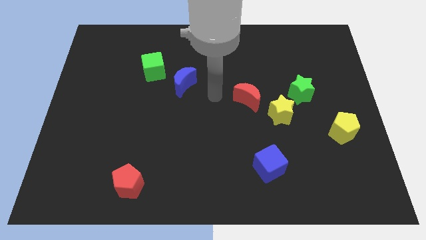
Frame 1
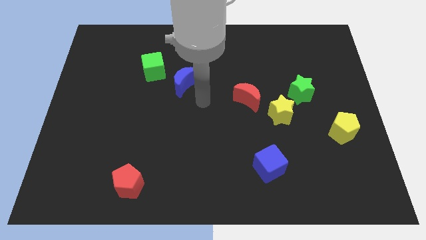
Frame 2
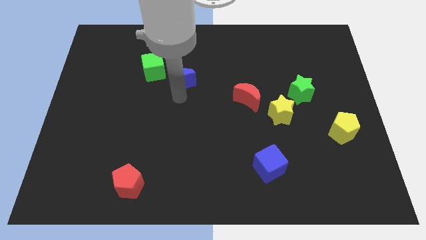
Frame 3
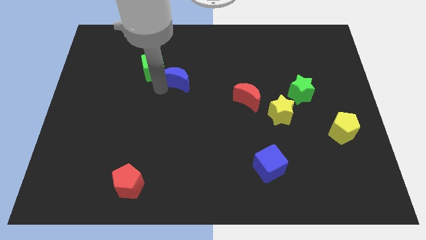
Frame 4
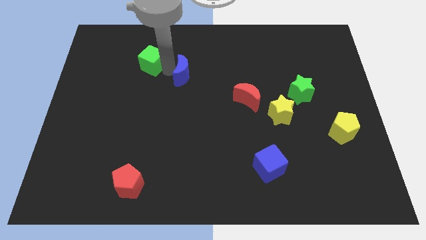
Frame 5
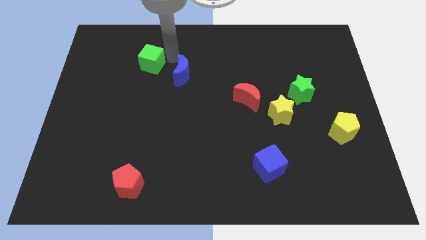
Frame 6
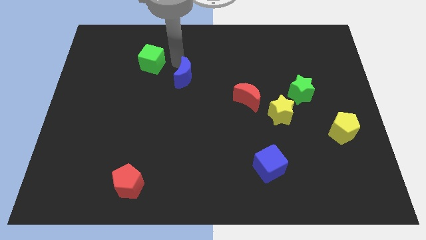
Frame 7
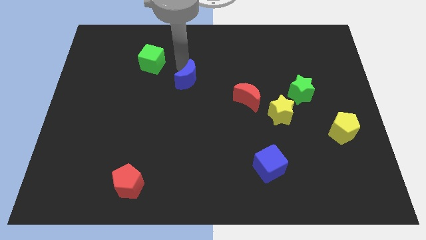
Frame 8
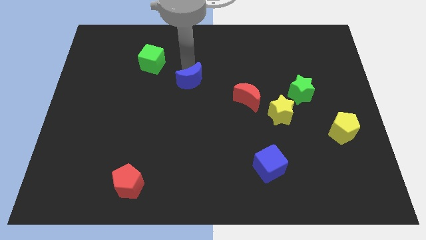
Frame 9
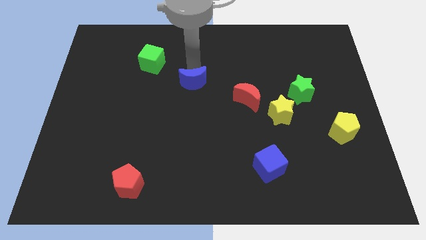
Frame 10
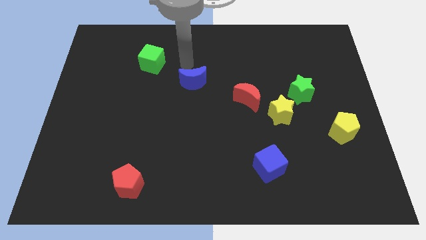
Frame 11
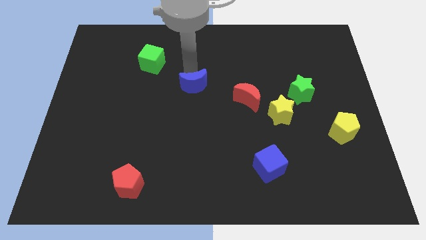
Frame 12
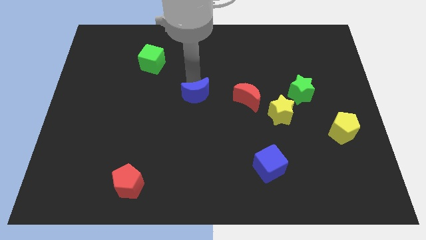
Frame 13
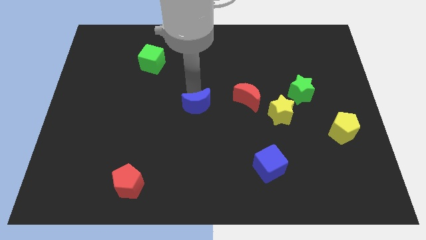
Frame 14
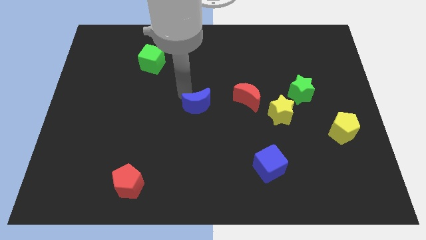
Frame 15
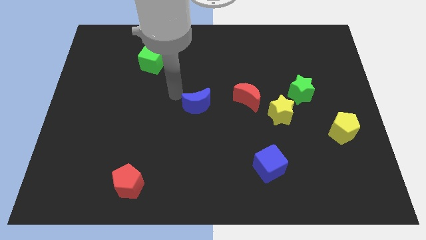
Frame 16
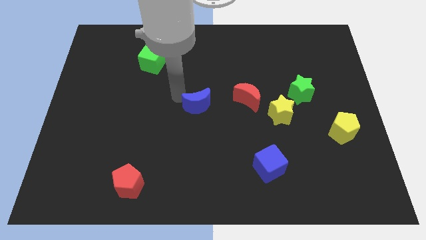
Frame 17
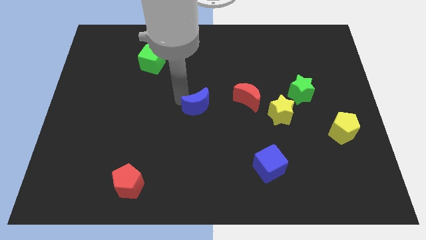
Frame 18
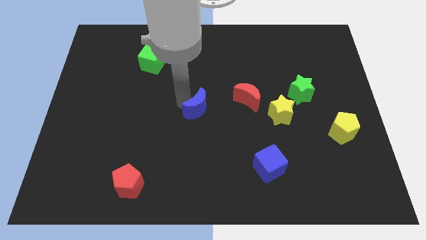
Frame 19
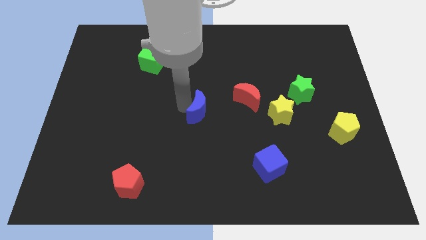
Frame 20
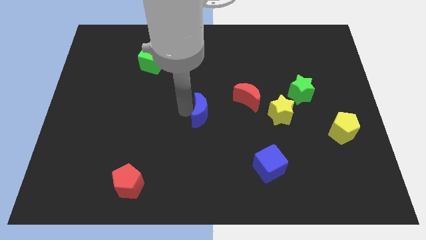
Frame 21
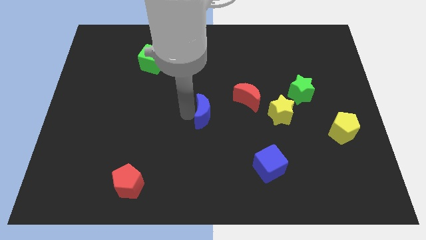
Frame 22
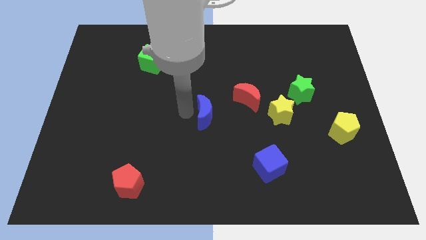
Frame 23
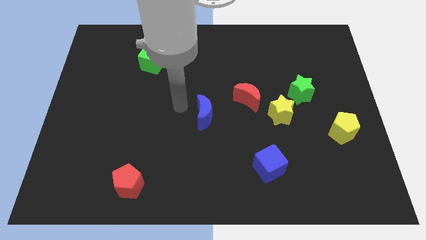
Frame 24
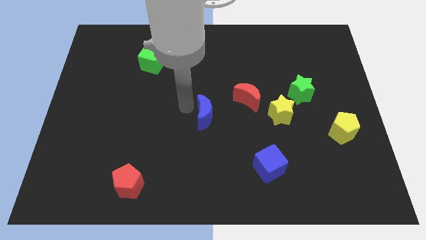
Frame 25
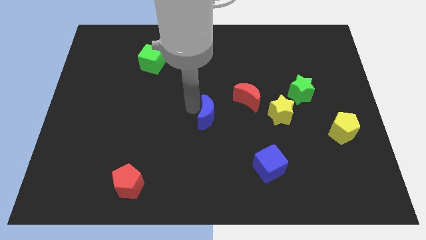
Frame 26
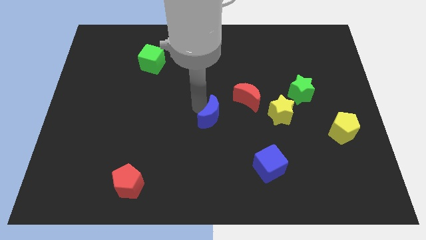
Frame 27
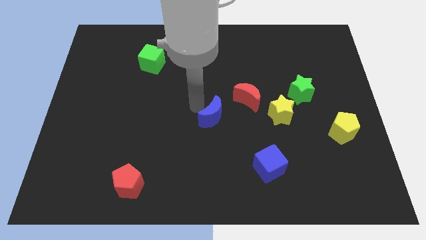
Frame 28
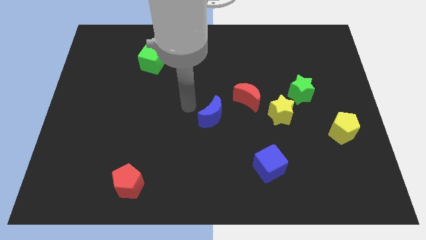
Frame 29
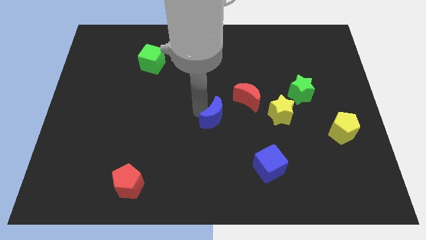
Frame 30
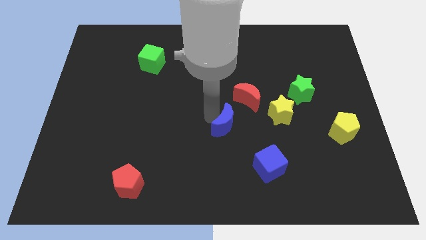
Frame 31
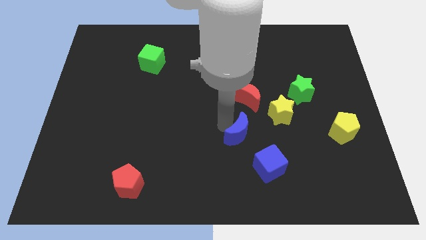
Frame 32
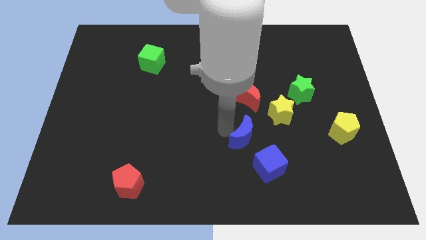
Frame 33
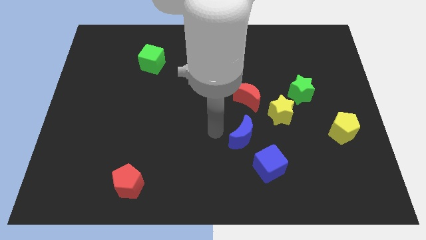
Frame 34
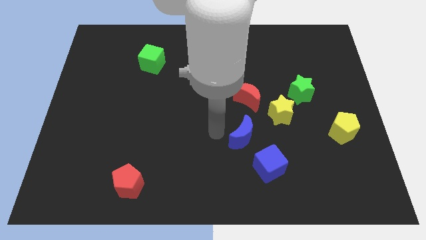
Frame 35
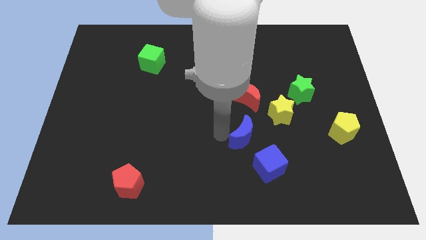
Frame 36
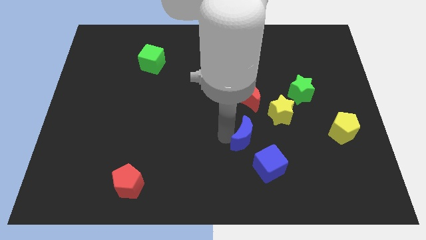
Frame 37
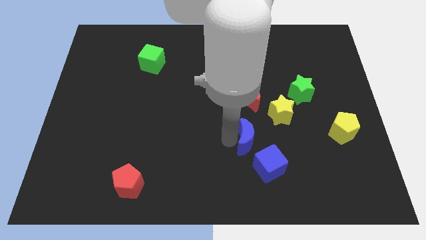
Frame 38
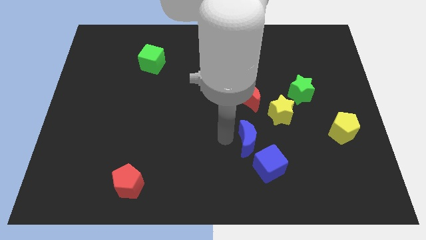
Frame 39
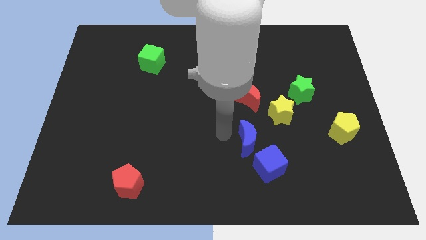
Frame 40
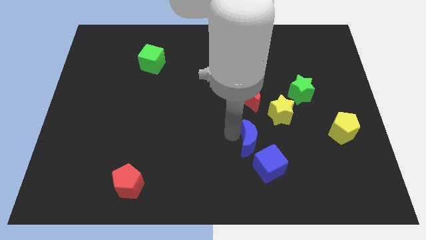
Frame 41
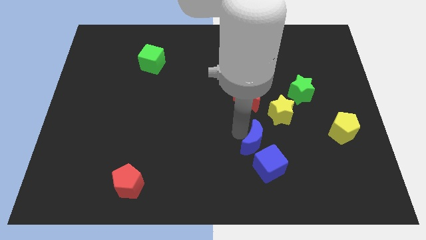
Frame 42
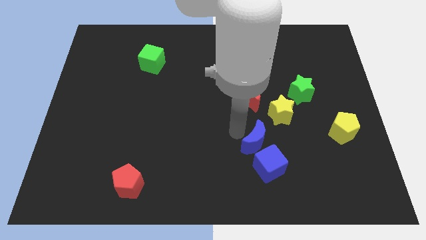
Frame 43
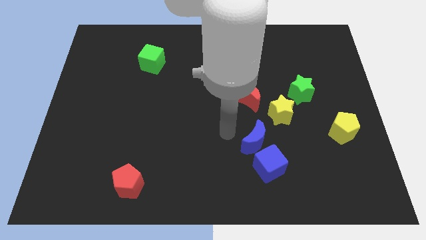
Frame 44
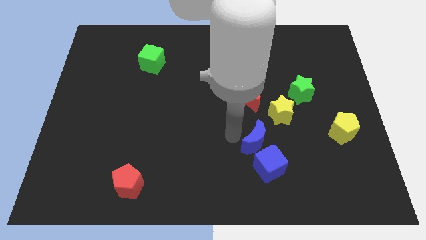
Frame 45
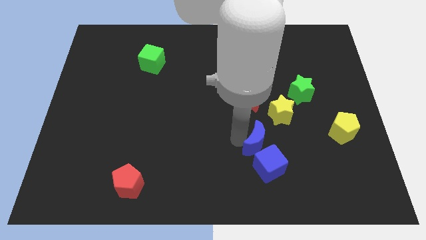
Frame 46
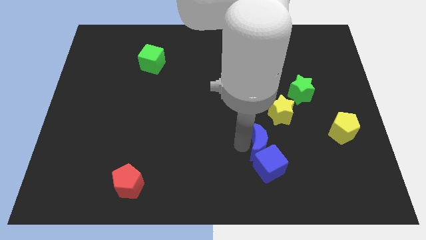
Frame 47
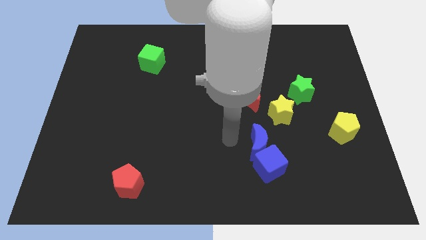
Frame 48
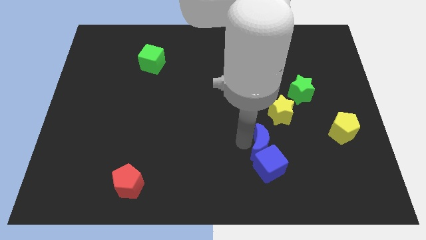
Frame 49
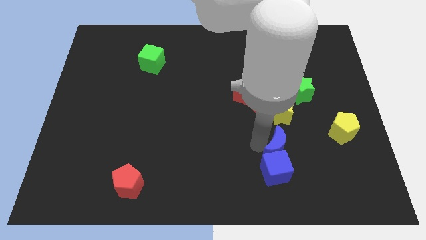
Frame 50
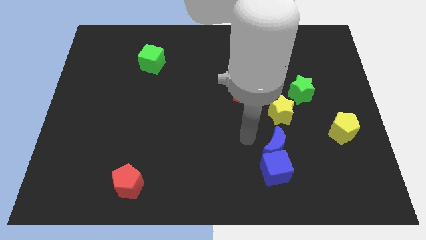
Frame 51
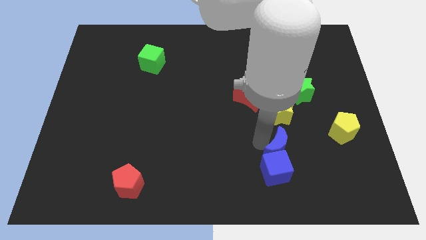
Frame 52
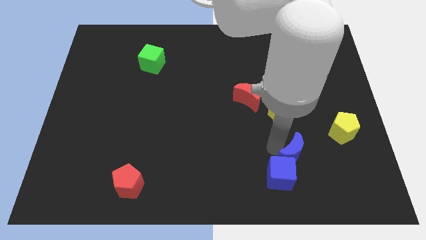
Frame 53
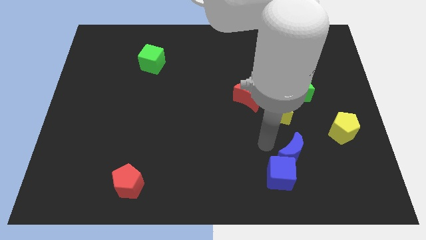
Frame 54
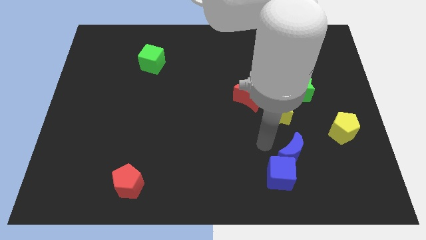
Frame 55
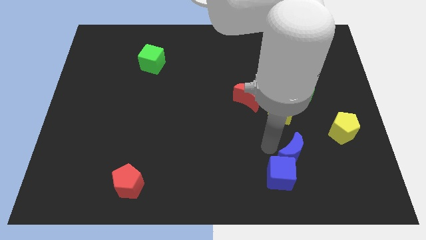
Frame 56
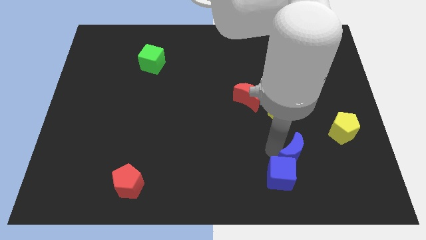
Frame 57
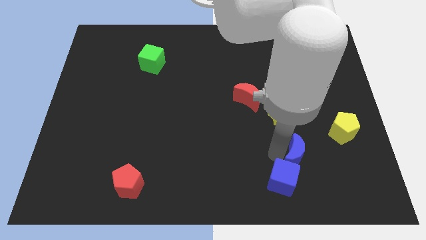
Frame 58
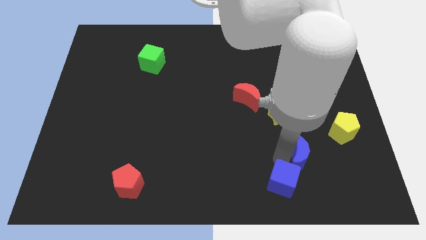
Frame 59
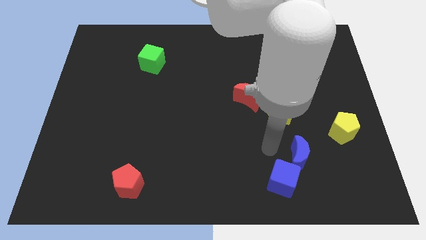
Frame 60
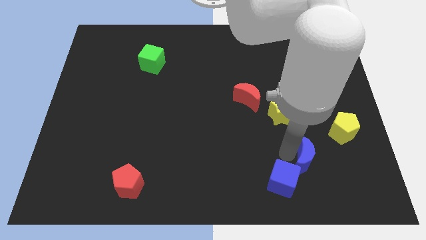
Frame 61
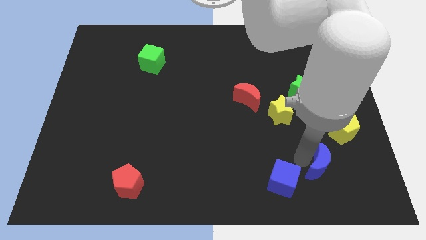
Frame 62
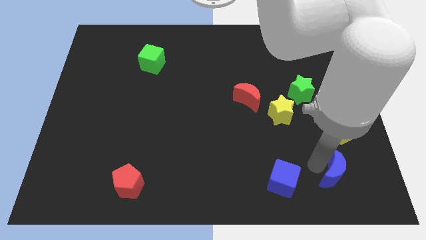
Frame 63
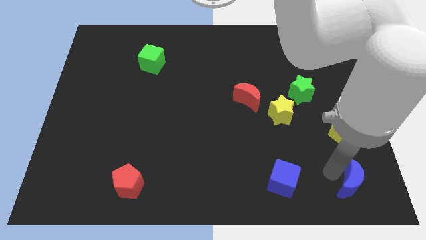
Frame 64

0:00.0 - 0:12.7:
push the blue moon to the bottom right of the board

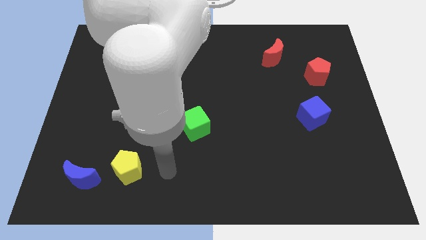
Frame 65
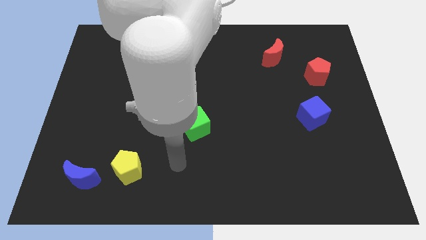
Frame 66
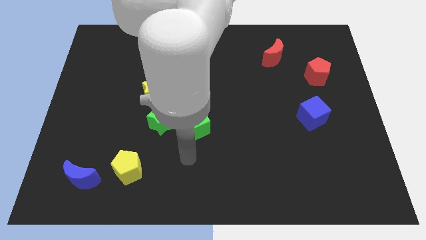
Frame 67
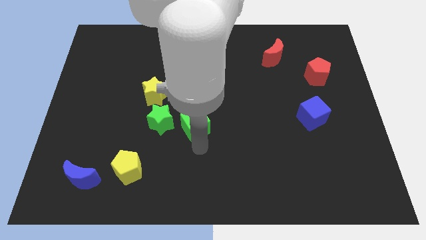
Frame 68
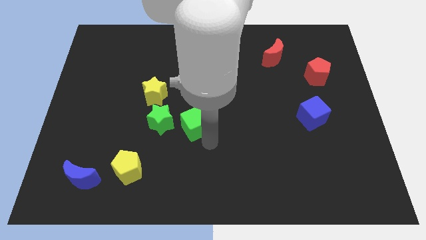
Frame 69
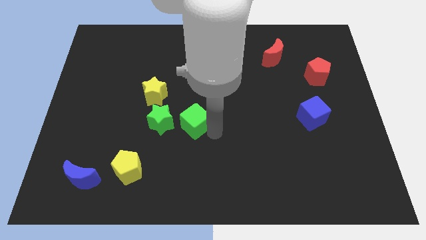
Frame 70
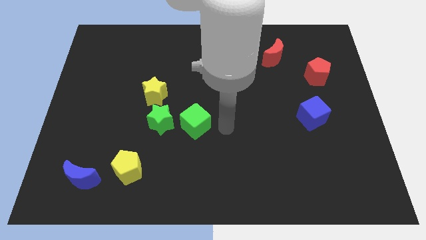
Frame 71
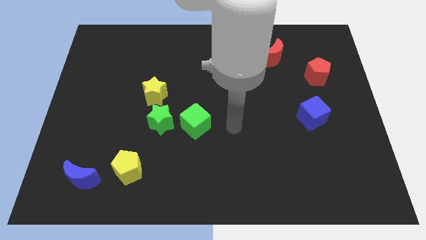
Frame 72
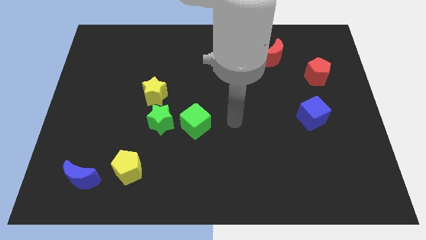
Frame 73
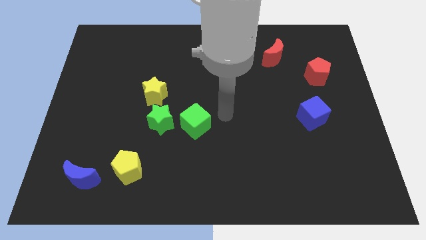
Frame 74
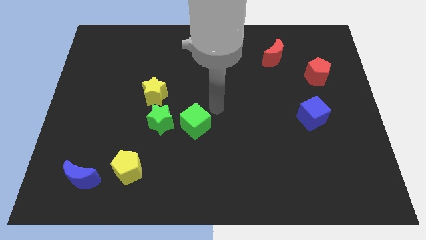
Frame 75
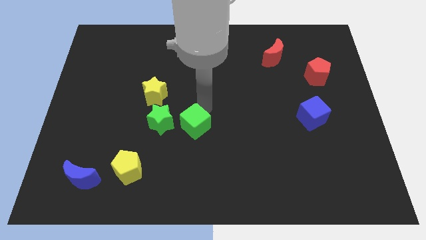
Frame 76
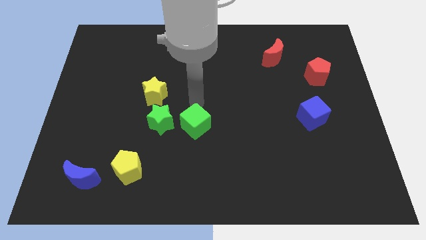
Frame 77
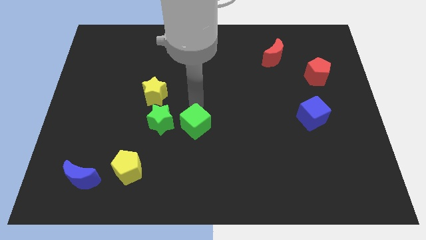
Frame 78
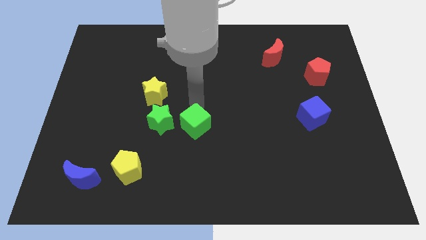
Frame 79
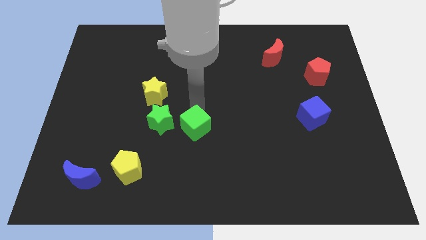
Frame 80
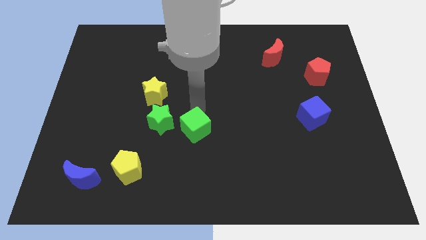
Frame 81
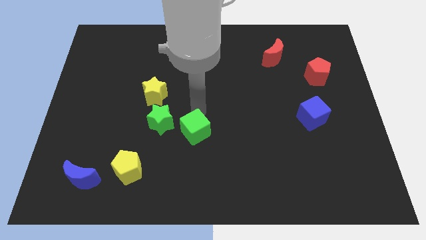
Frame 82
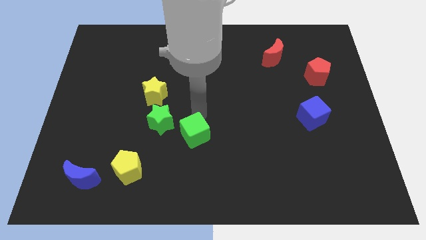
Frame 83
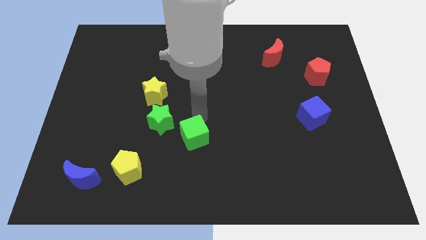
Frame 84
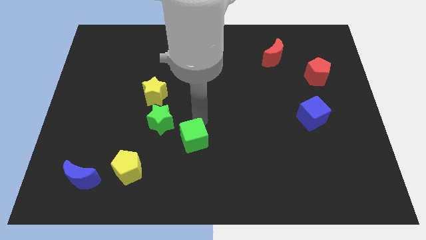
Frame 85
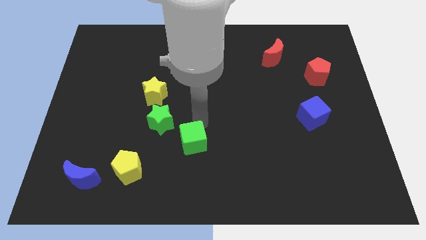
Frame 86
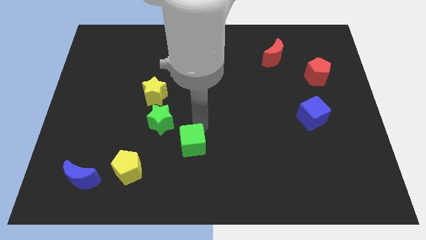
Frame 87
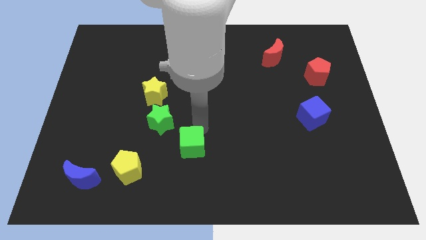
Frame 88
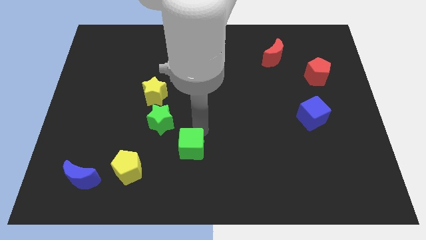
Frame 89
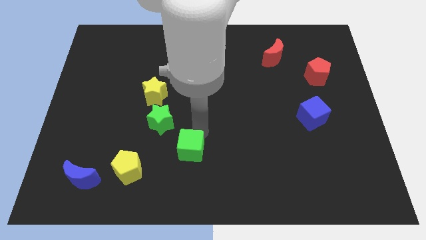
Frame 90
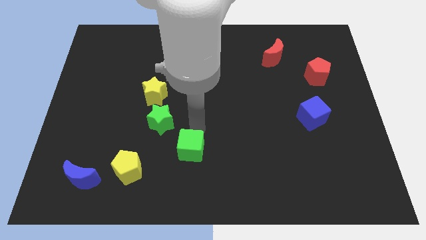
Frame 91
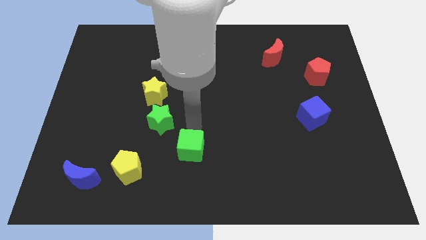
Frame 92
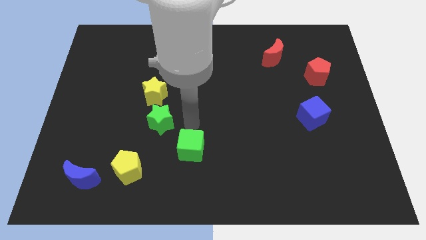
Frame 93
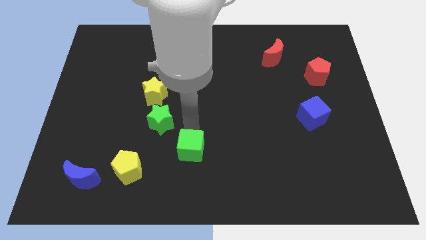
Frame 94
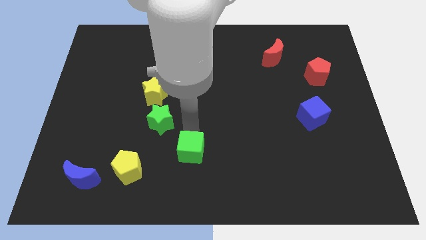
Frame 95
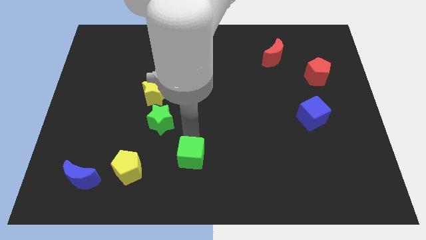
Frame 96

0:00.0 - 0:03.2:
push the green cube to the bottom
